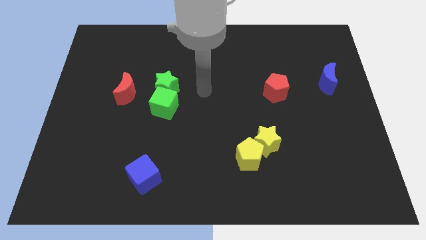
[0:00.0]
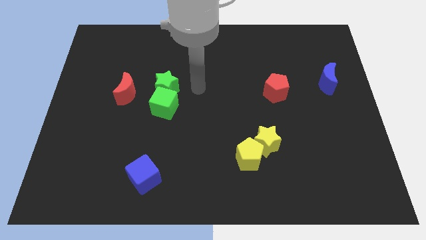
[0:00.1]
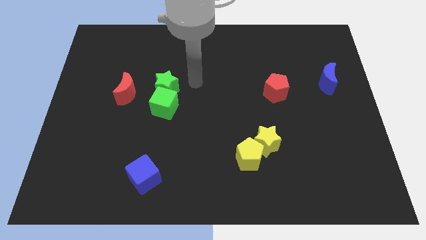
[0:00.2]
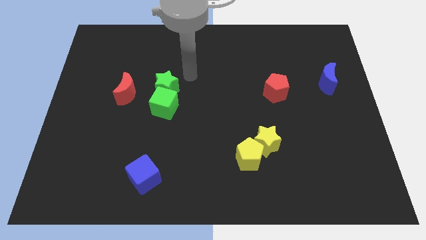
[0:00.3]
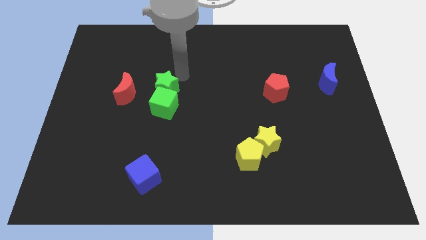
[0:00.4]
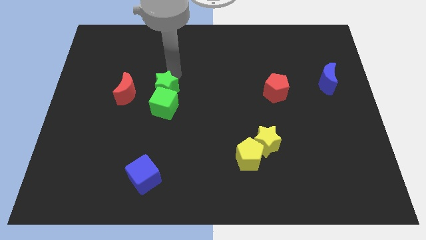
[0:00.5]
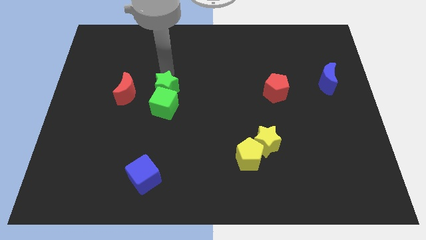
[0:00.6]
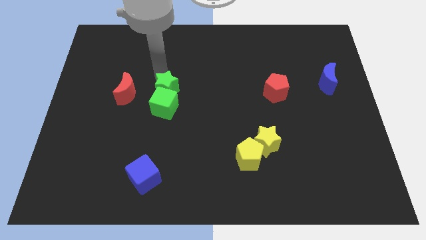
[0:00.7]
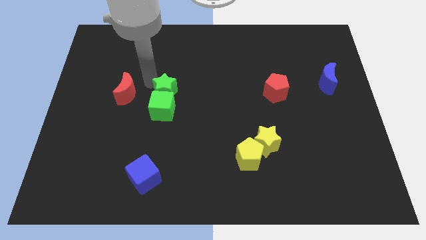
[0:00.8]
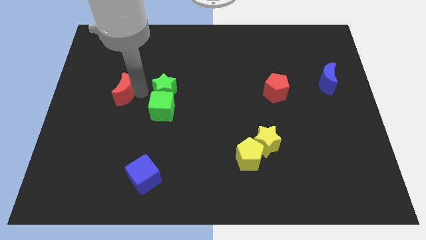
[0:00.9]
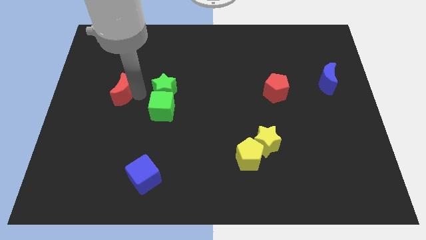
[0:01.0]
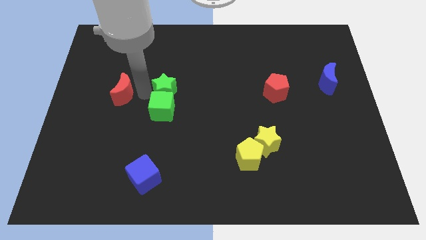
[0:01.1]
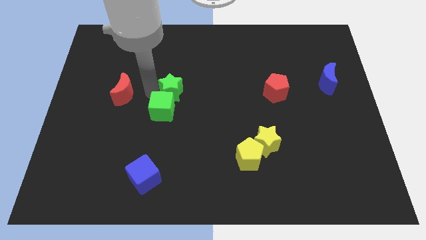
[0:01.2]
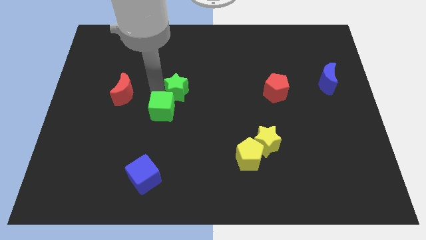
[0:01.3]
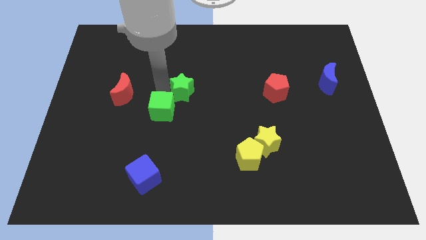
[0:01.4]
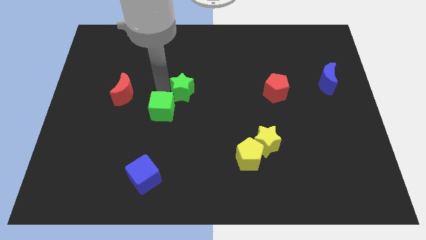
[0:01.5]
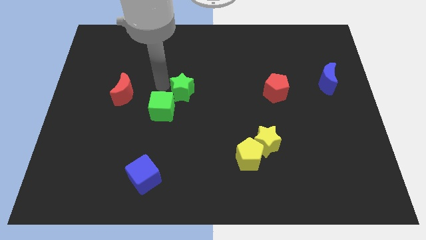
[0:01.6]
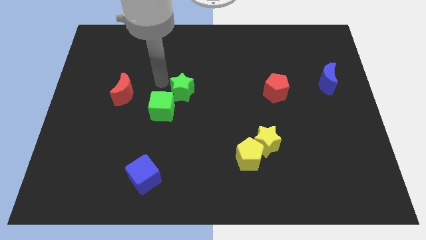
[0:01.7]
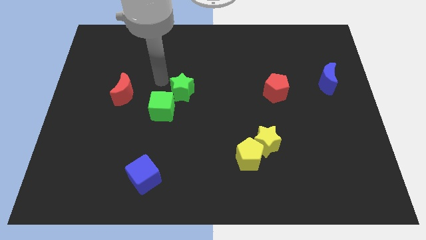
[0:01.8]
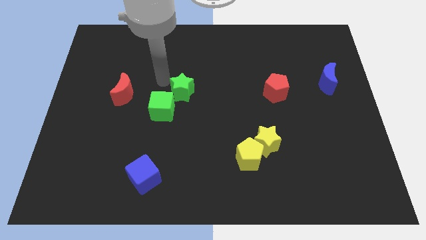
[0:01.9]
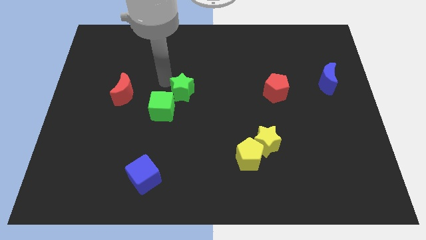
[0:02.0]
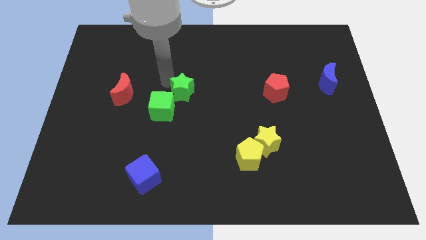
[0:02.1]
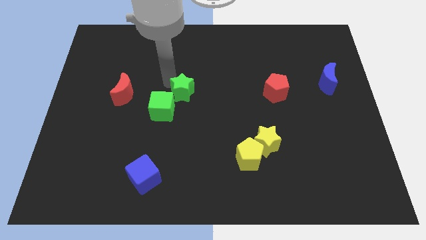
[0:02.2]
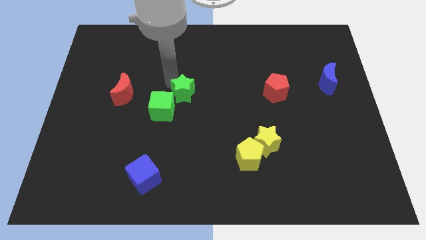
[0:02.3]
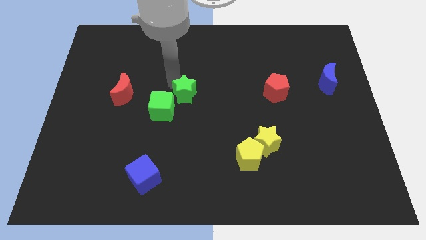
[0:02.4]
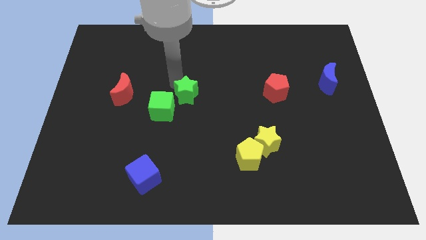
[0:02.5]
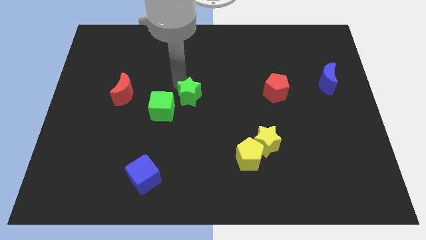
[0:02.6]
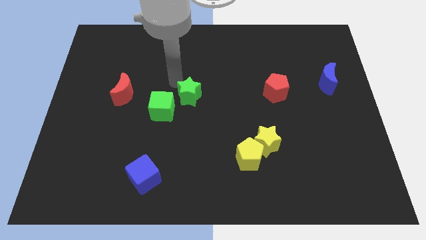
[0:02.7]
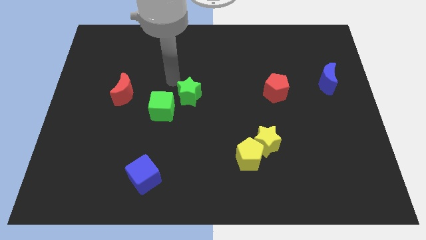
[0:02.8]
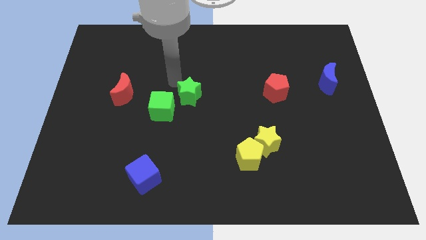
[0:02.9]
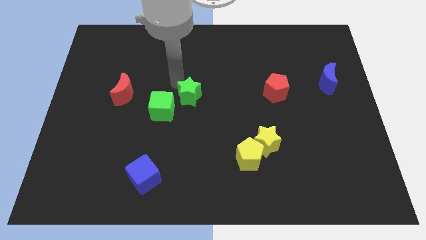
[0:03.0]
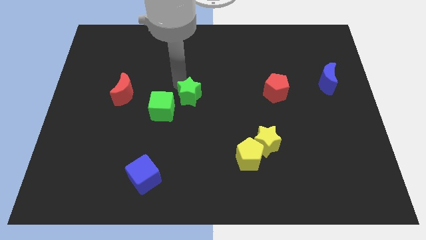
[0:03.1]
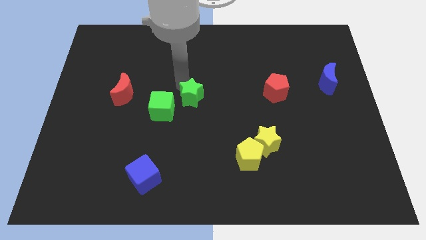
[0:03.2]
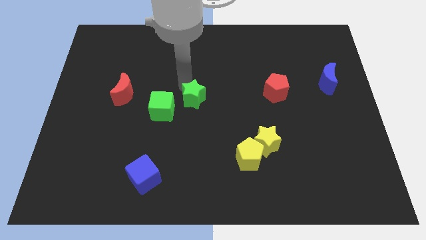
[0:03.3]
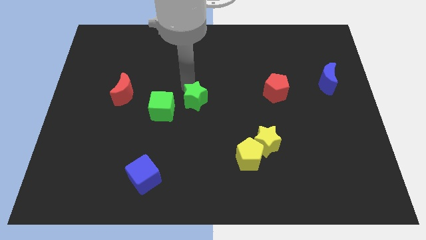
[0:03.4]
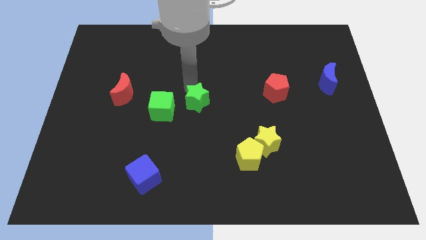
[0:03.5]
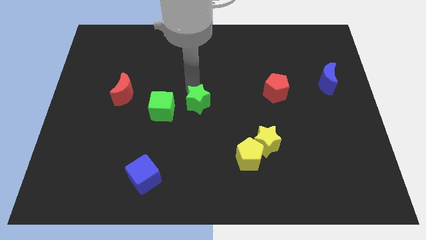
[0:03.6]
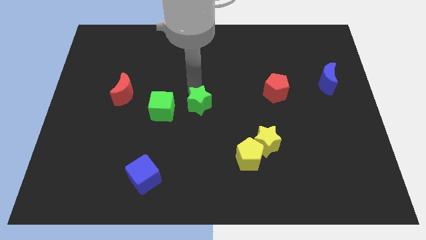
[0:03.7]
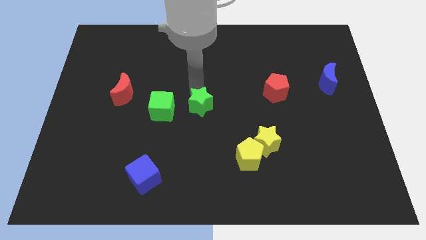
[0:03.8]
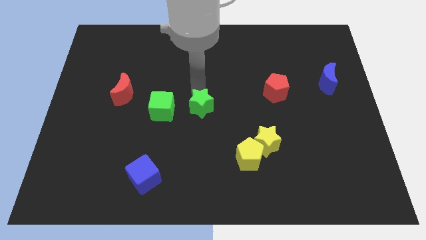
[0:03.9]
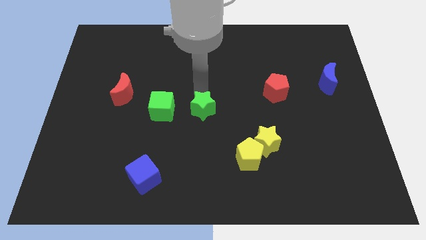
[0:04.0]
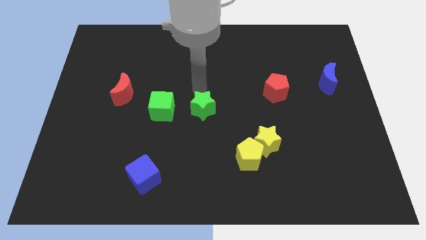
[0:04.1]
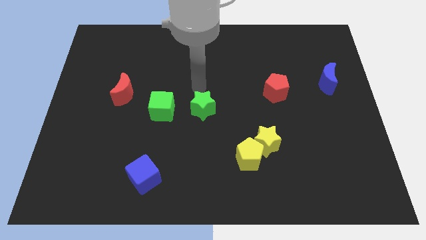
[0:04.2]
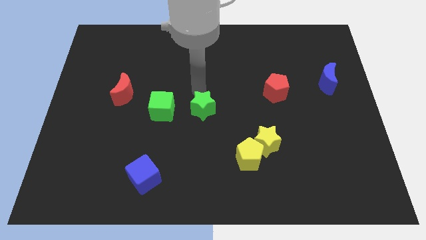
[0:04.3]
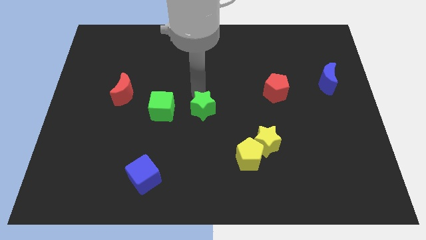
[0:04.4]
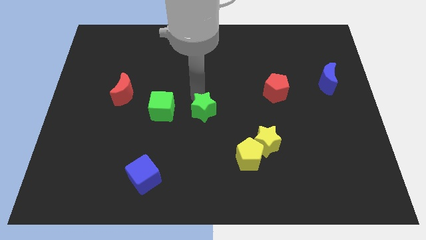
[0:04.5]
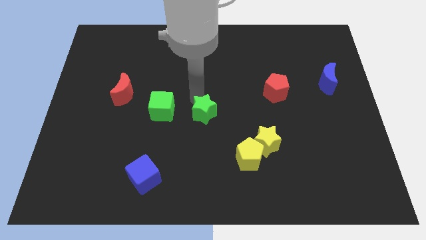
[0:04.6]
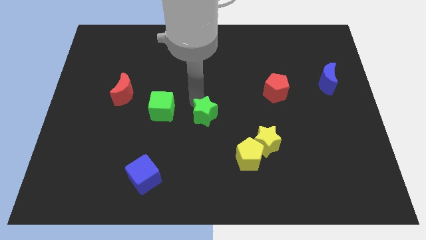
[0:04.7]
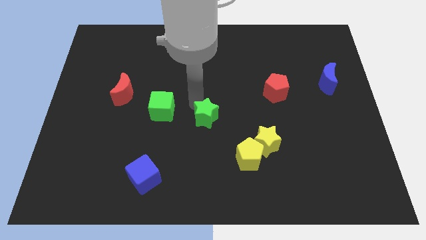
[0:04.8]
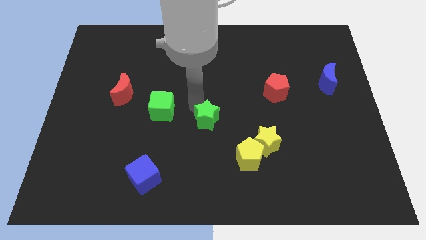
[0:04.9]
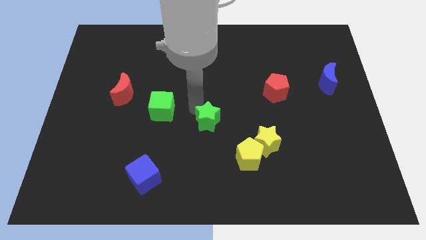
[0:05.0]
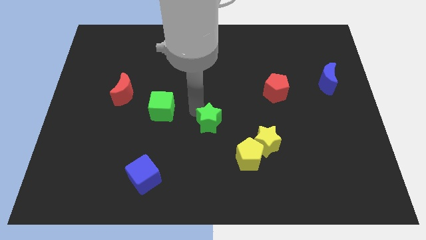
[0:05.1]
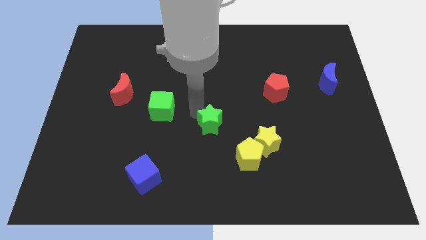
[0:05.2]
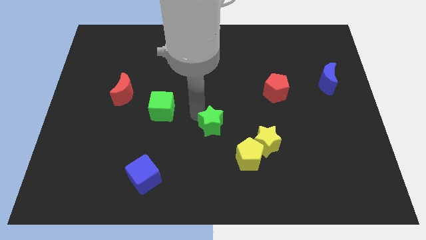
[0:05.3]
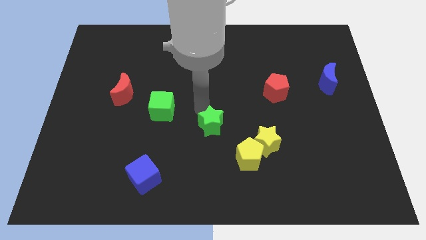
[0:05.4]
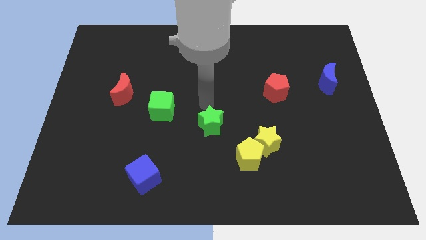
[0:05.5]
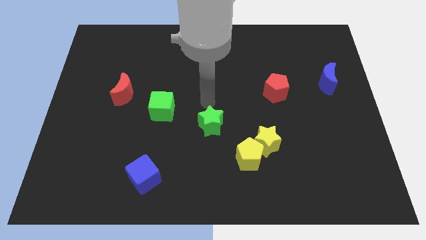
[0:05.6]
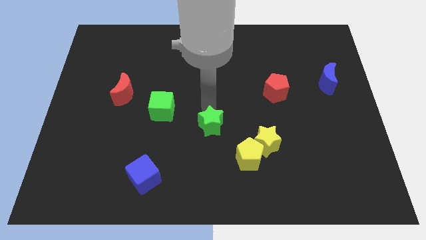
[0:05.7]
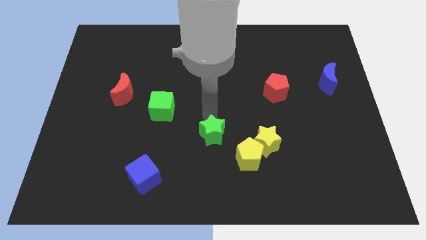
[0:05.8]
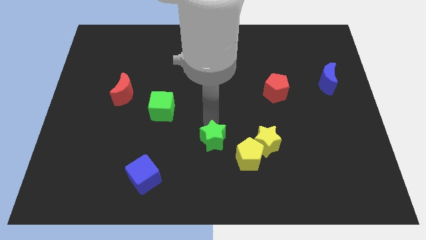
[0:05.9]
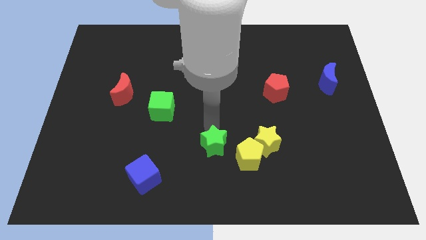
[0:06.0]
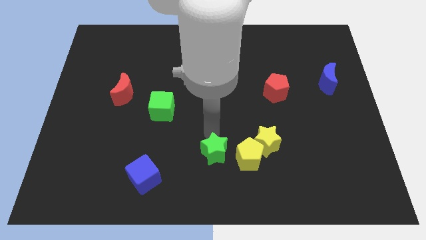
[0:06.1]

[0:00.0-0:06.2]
move the green star down and right

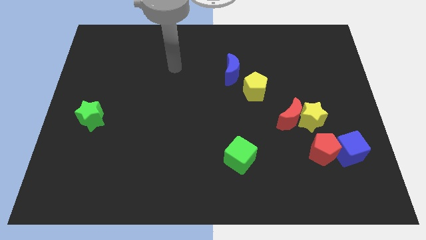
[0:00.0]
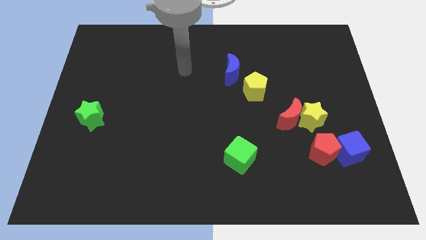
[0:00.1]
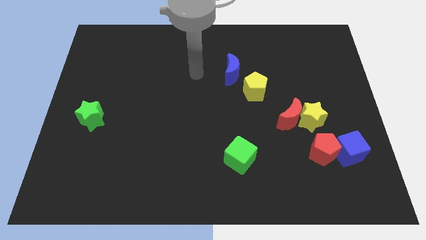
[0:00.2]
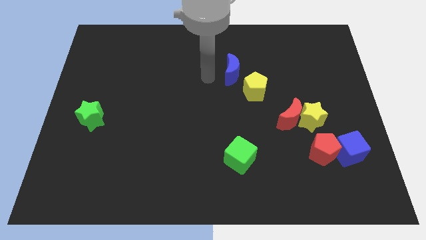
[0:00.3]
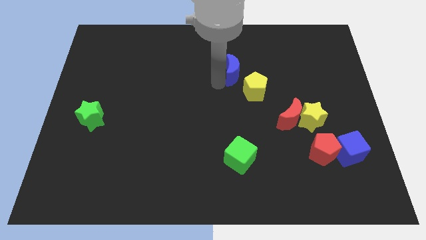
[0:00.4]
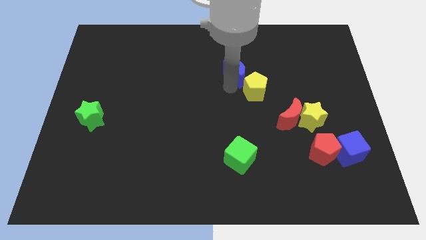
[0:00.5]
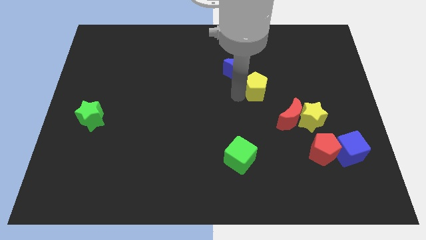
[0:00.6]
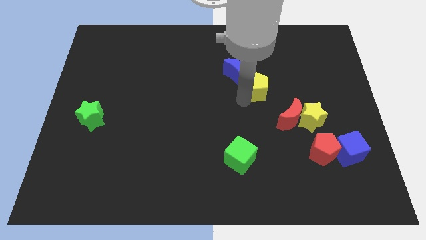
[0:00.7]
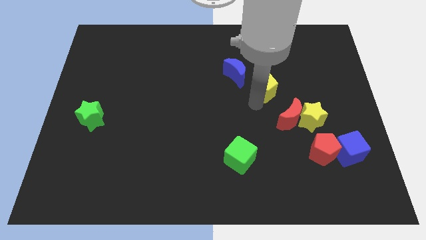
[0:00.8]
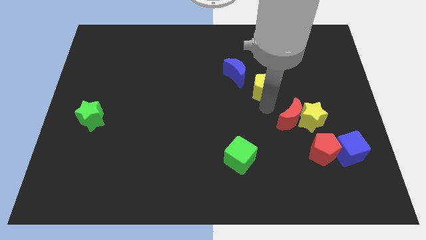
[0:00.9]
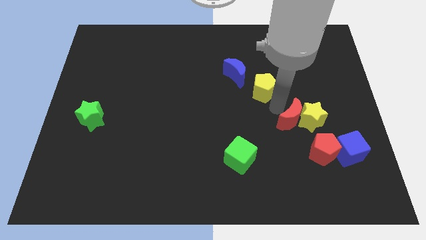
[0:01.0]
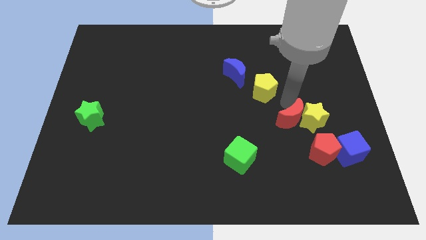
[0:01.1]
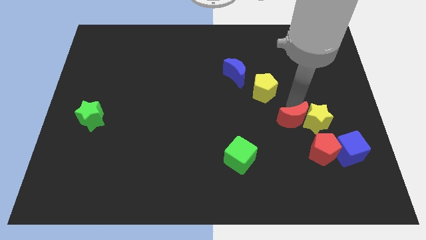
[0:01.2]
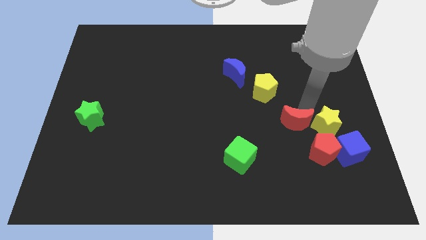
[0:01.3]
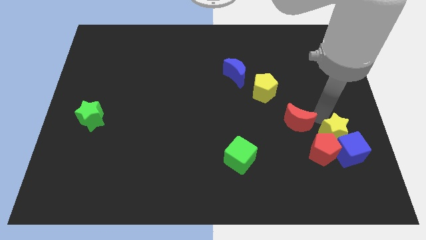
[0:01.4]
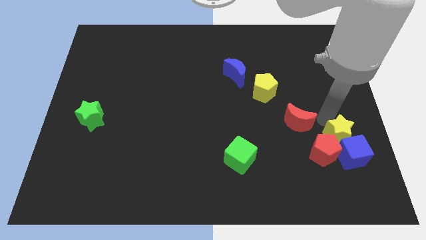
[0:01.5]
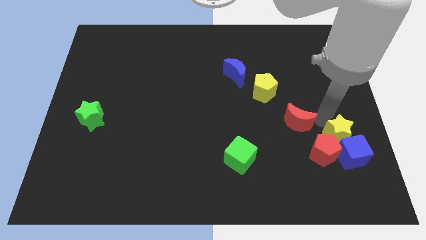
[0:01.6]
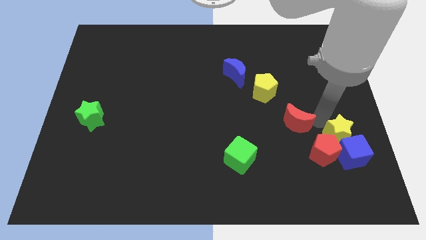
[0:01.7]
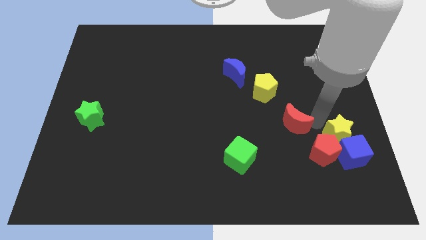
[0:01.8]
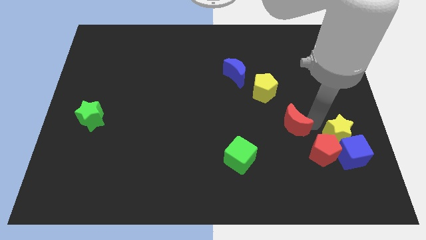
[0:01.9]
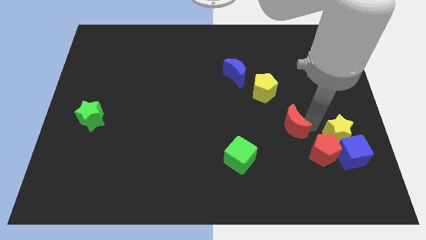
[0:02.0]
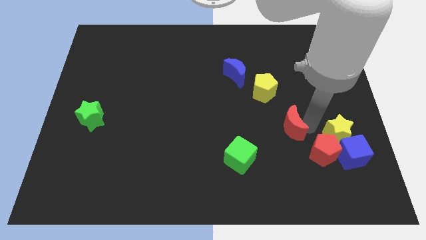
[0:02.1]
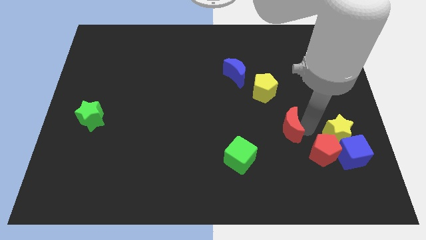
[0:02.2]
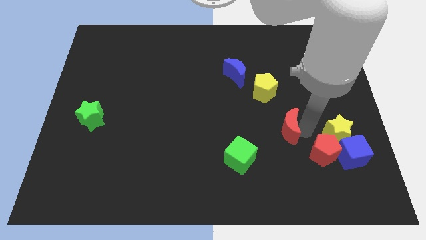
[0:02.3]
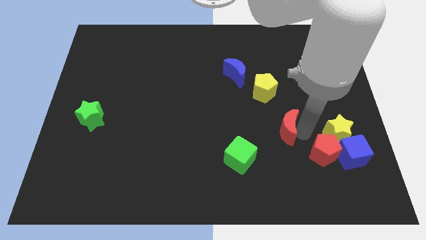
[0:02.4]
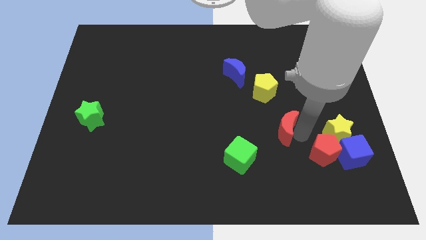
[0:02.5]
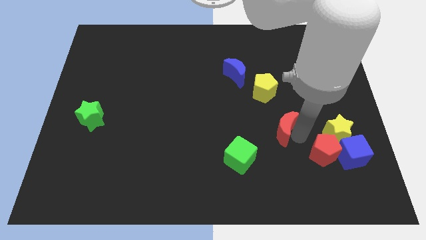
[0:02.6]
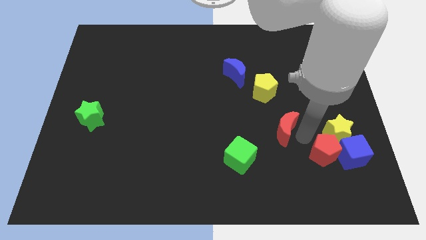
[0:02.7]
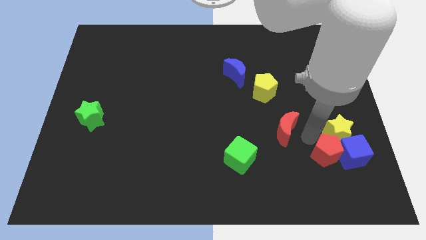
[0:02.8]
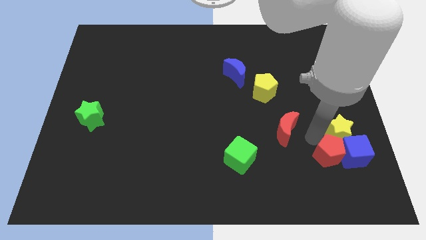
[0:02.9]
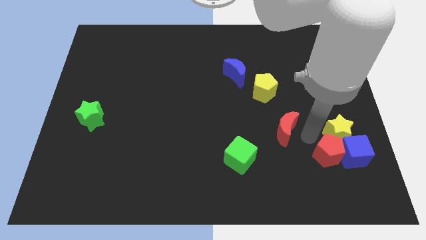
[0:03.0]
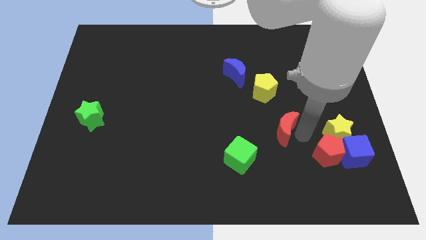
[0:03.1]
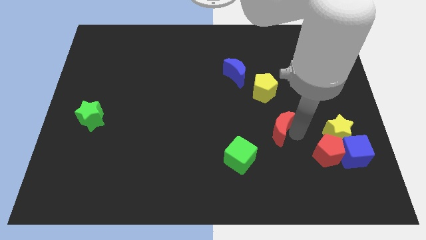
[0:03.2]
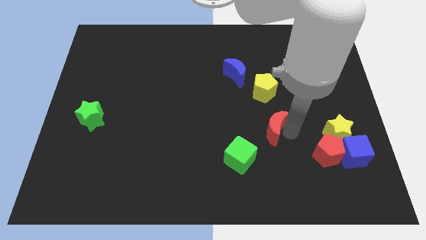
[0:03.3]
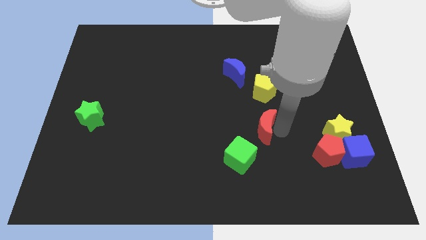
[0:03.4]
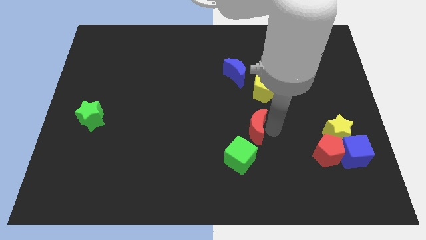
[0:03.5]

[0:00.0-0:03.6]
push the red moon a little bit left
